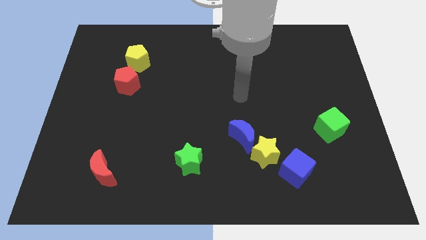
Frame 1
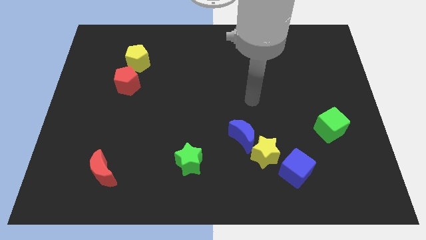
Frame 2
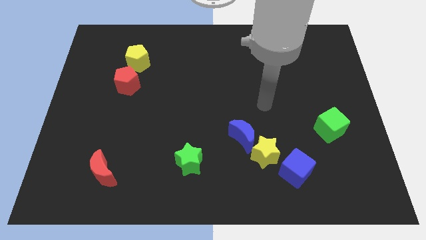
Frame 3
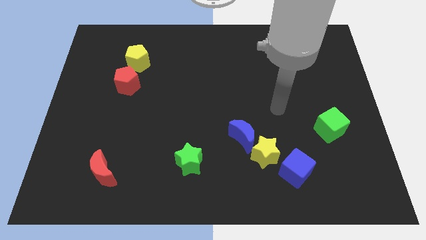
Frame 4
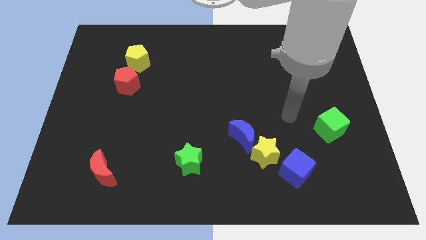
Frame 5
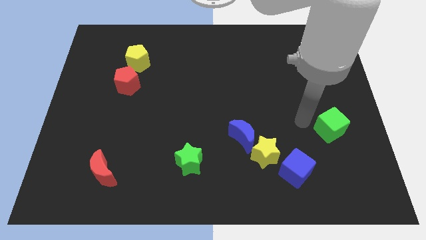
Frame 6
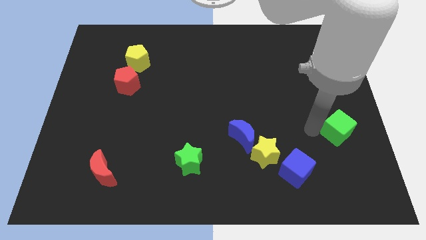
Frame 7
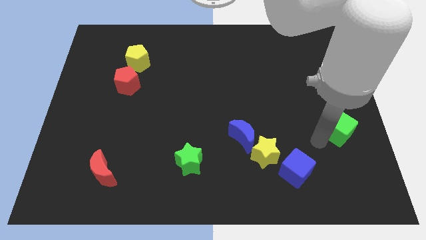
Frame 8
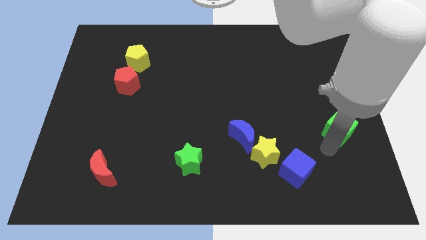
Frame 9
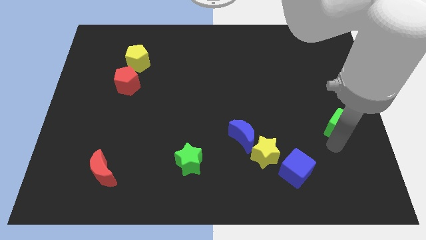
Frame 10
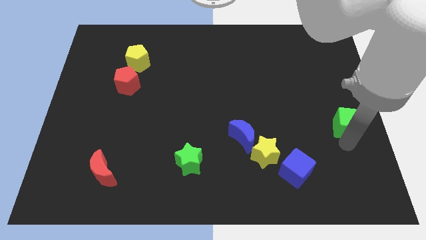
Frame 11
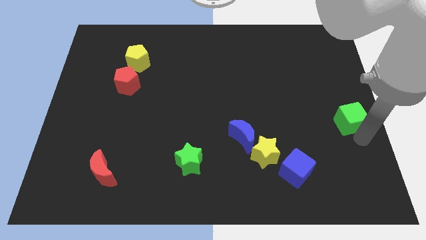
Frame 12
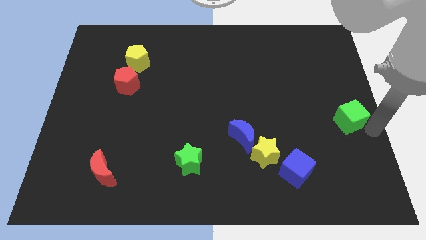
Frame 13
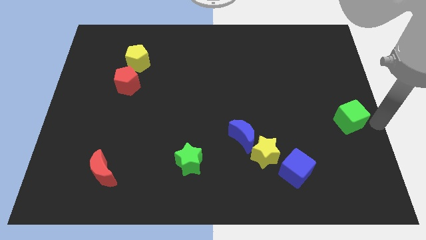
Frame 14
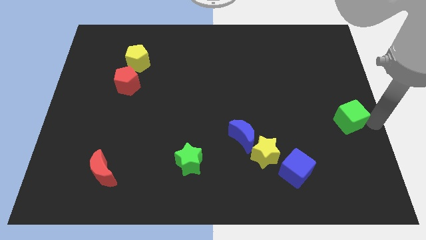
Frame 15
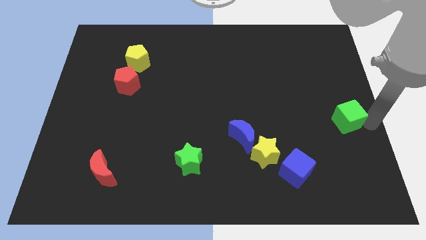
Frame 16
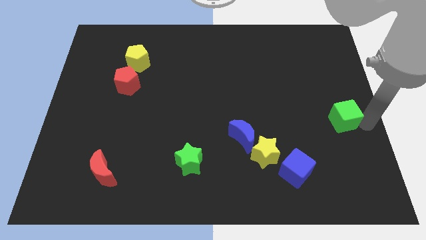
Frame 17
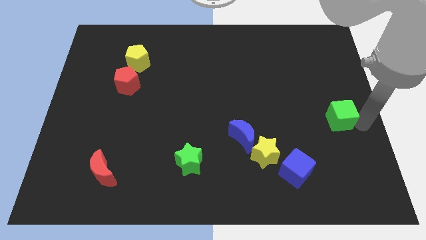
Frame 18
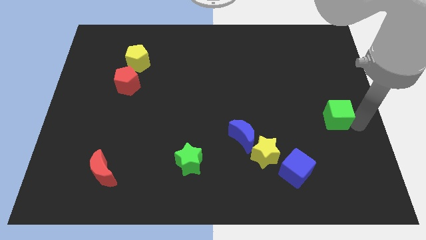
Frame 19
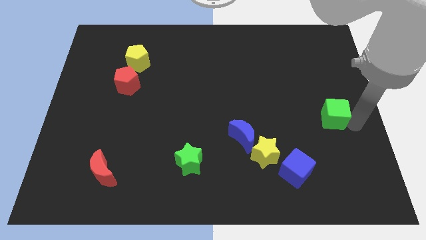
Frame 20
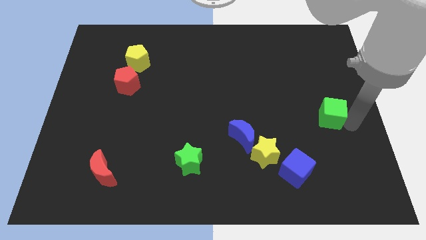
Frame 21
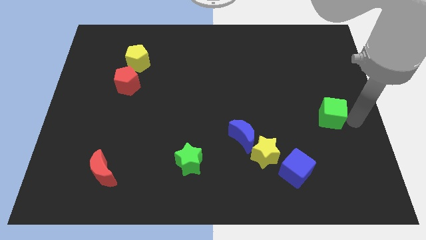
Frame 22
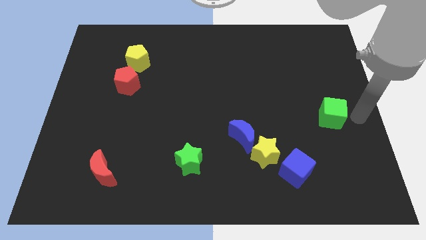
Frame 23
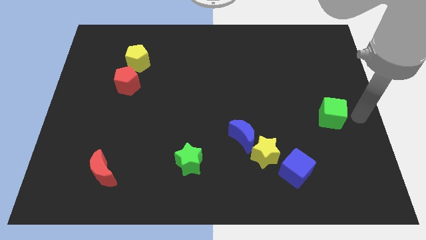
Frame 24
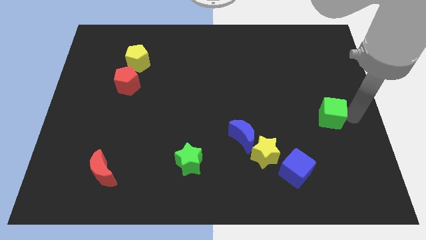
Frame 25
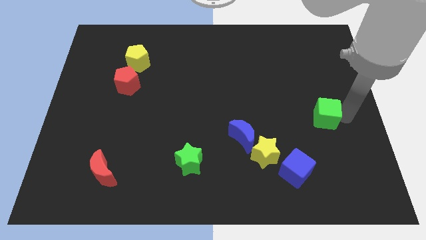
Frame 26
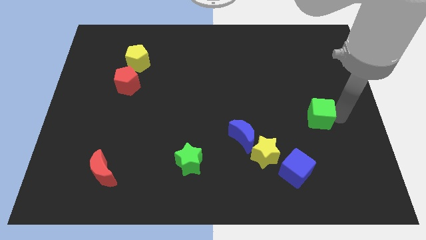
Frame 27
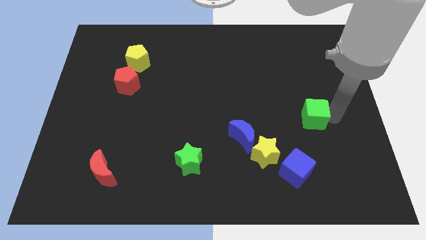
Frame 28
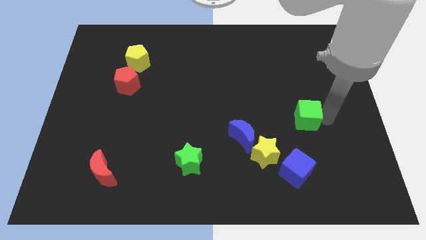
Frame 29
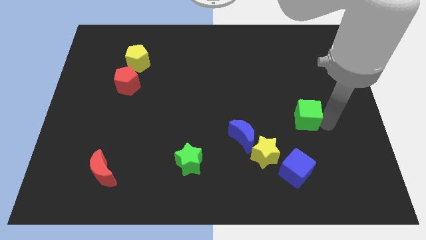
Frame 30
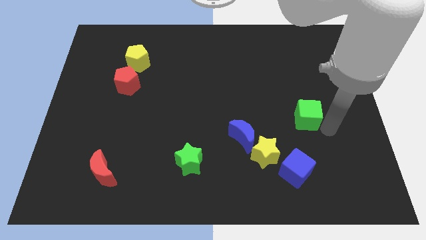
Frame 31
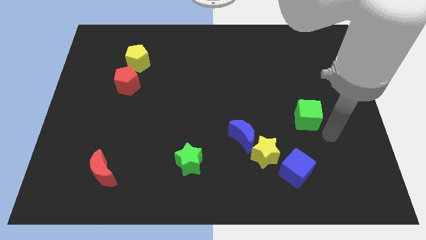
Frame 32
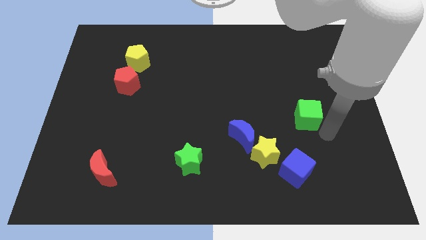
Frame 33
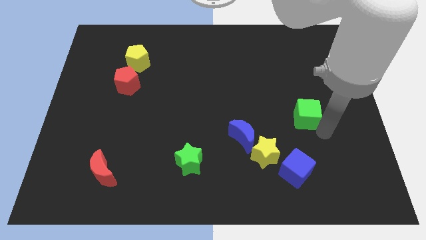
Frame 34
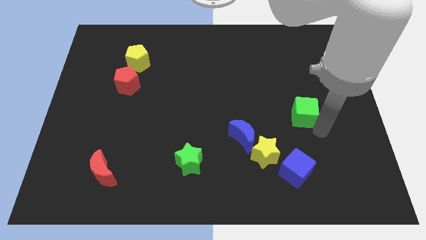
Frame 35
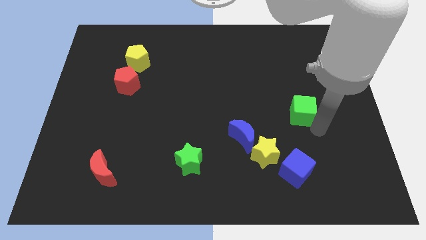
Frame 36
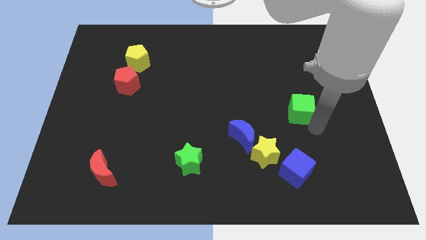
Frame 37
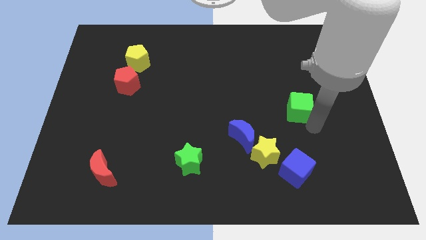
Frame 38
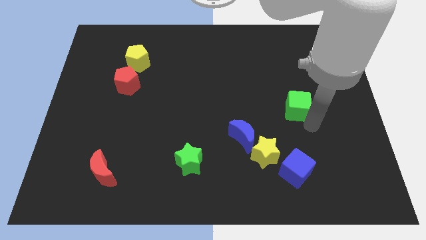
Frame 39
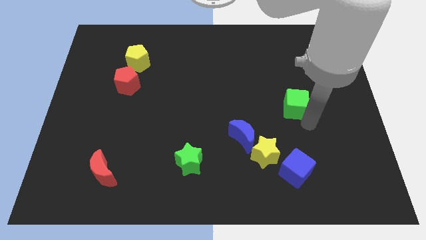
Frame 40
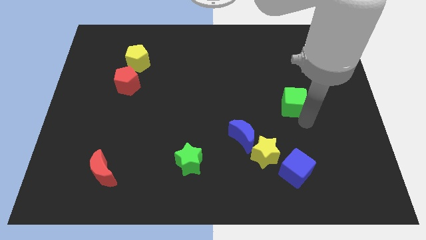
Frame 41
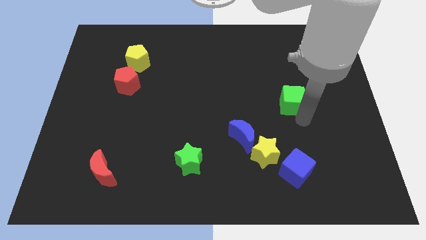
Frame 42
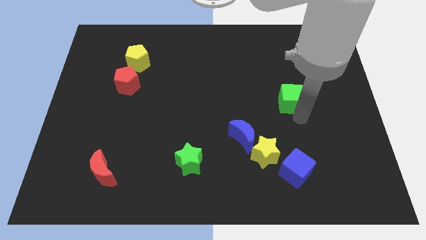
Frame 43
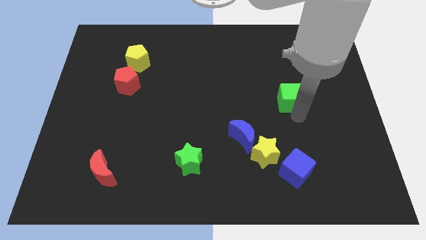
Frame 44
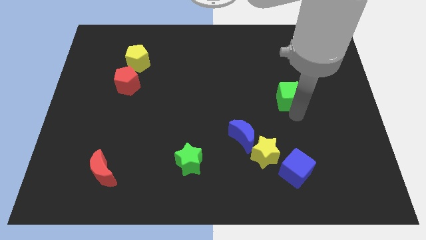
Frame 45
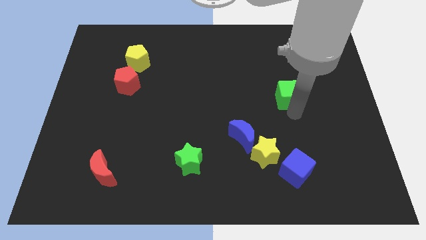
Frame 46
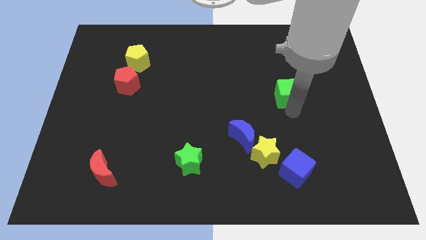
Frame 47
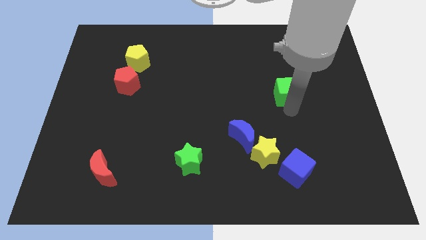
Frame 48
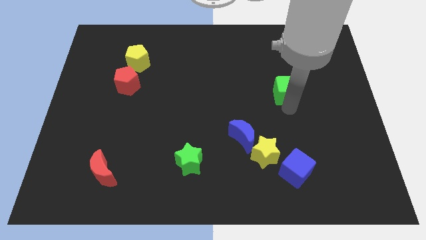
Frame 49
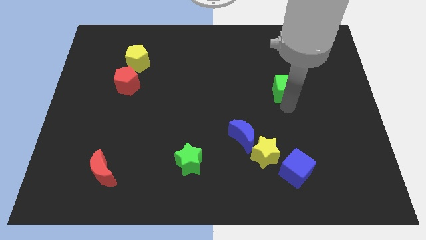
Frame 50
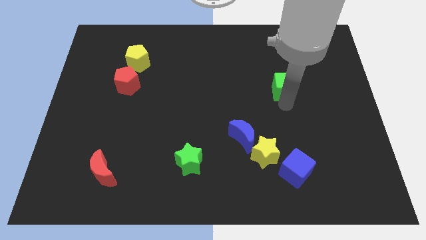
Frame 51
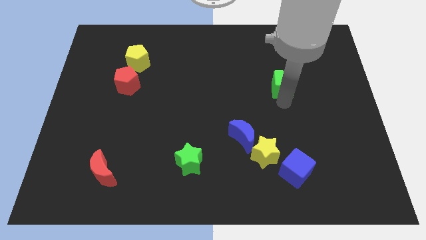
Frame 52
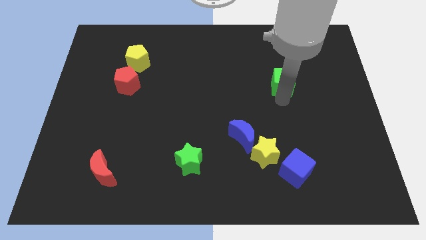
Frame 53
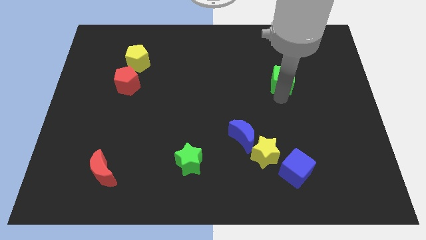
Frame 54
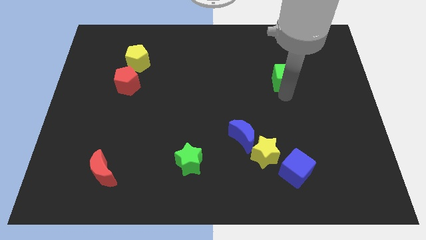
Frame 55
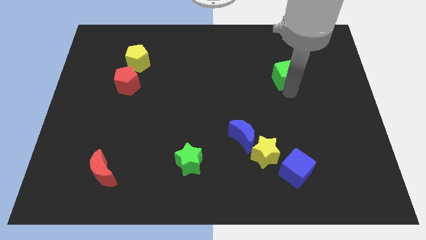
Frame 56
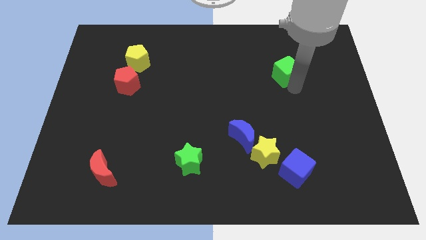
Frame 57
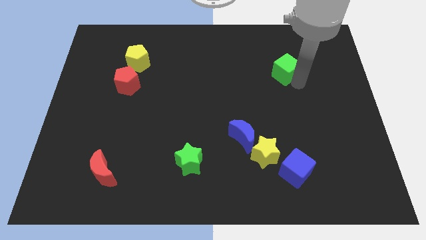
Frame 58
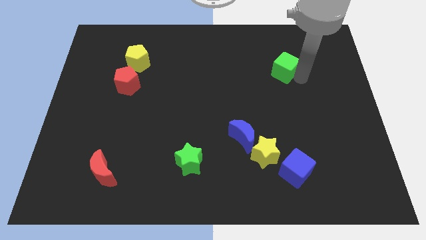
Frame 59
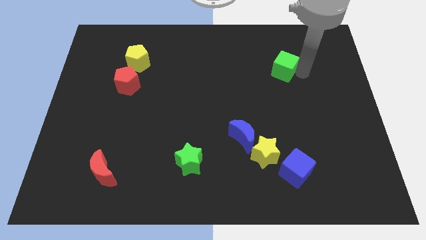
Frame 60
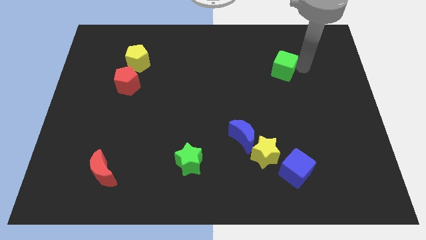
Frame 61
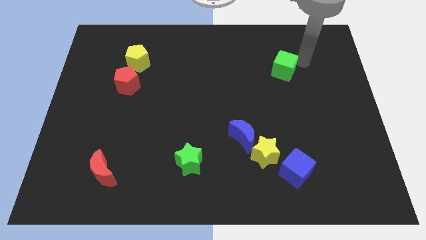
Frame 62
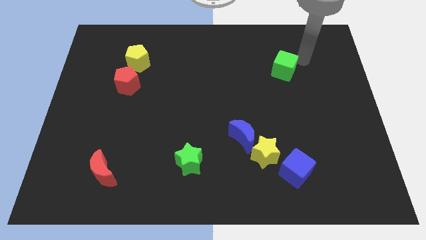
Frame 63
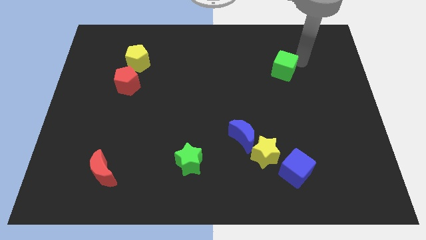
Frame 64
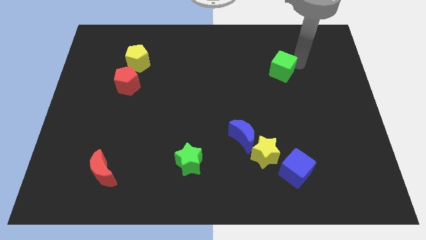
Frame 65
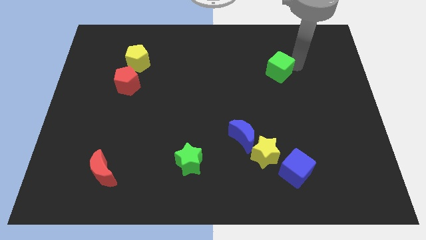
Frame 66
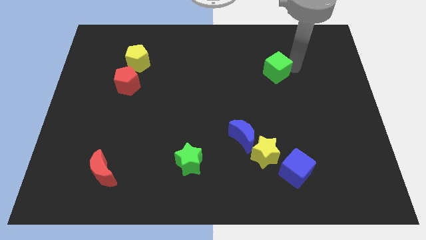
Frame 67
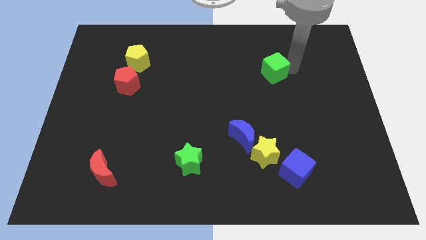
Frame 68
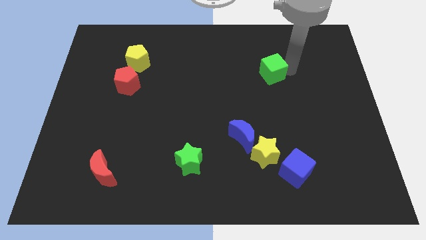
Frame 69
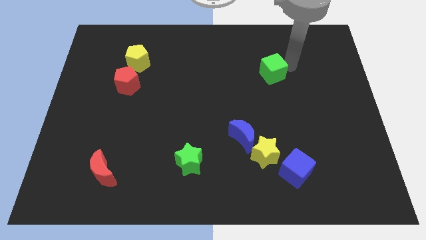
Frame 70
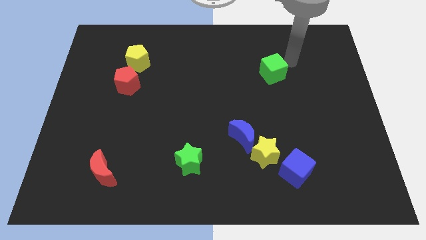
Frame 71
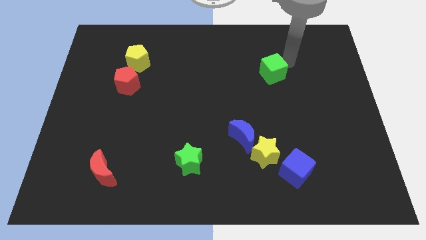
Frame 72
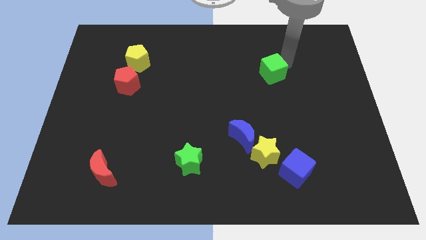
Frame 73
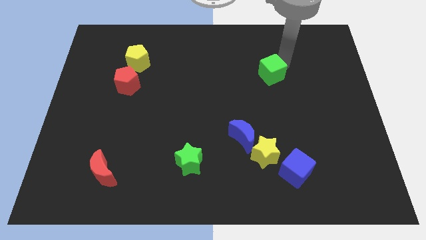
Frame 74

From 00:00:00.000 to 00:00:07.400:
slide the green cube up and to the left diagonally

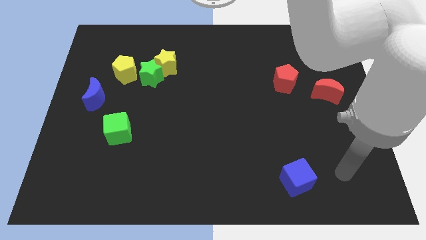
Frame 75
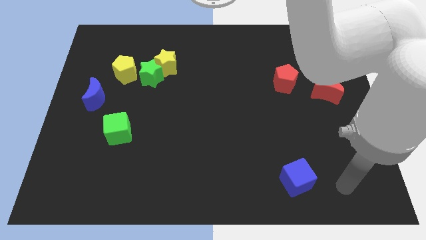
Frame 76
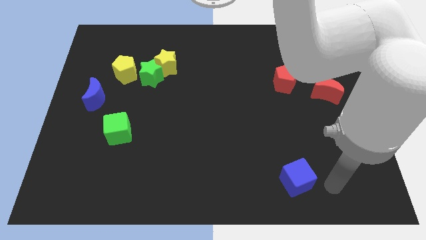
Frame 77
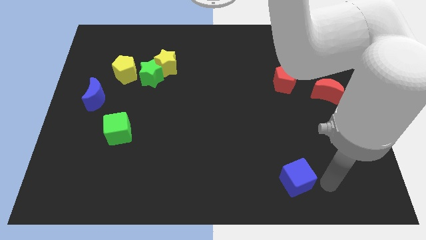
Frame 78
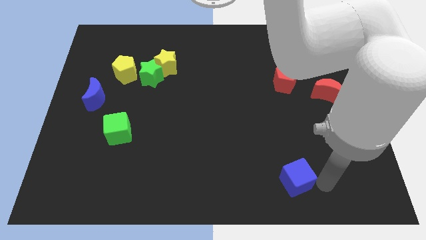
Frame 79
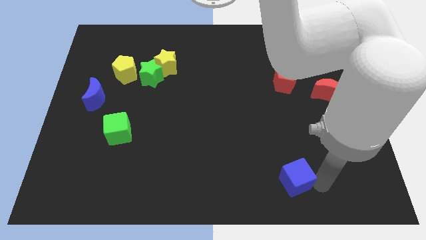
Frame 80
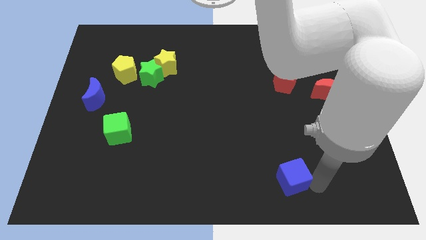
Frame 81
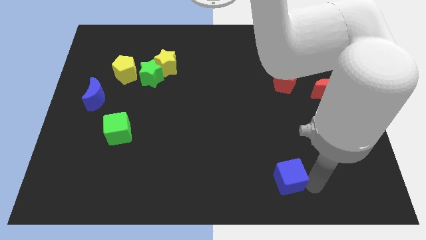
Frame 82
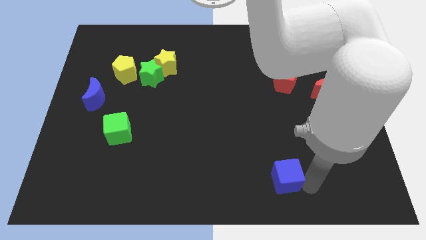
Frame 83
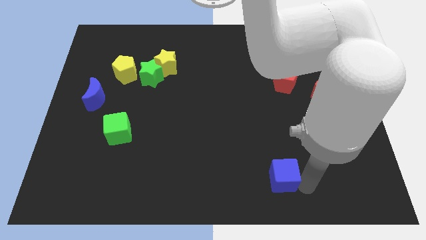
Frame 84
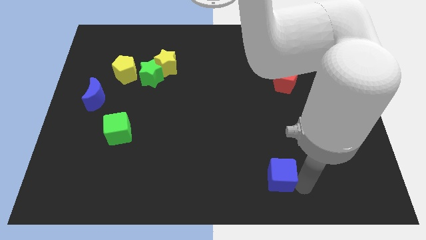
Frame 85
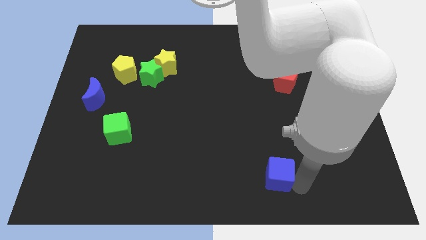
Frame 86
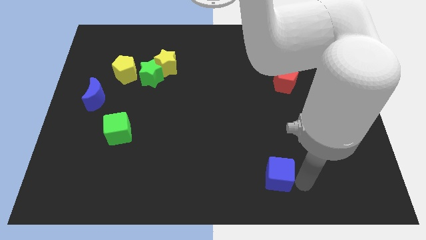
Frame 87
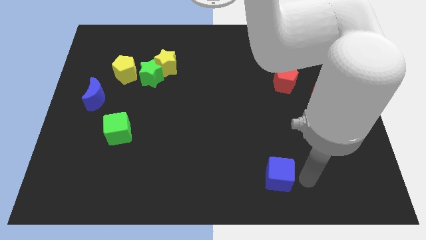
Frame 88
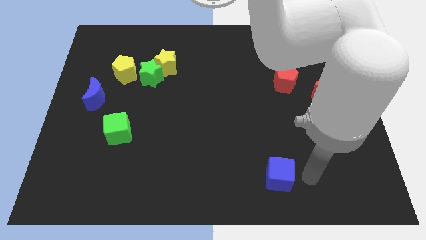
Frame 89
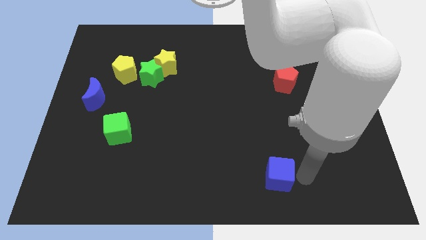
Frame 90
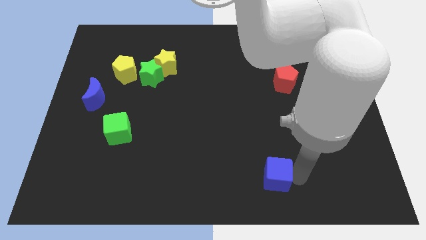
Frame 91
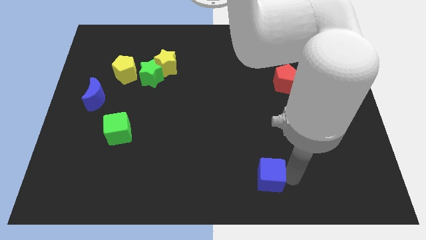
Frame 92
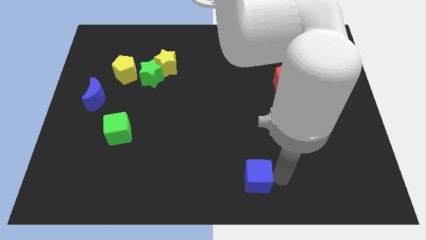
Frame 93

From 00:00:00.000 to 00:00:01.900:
slightly push the blue cube left
